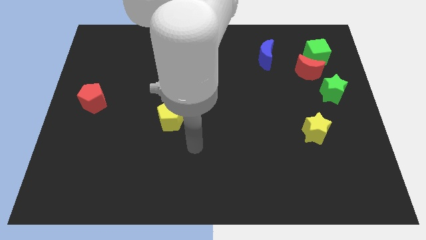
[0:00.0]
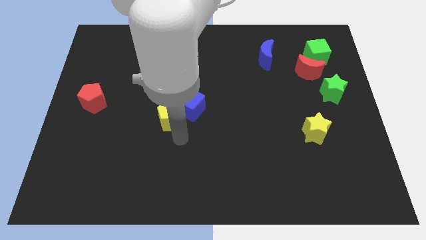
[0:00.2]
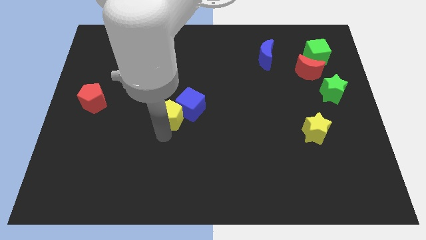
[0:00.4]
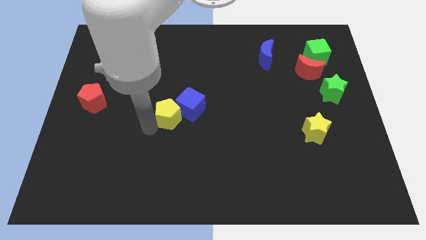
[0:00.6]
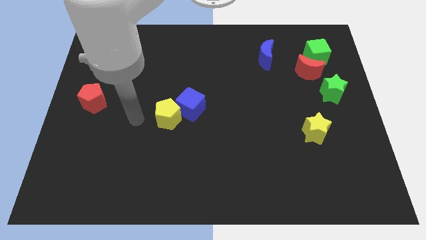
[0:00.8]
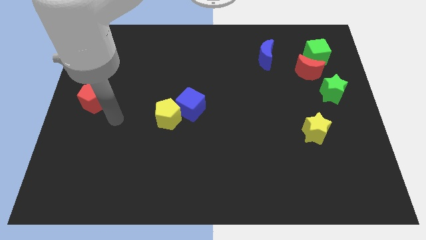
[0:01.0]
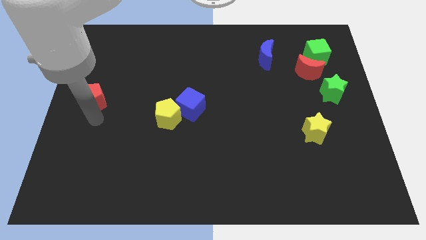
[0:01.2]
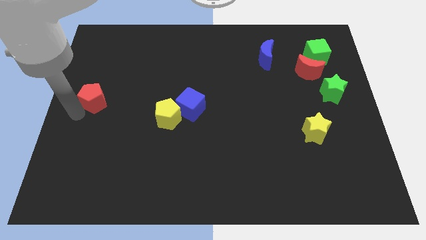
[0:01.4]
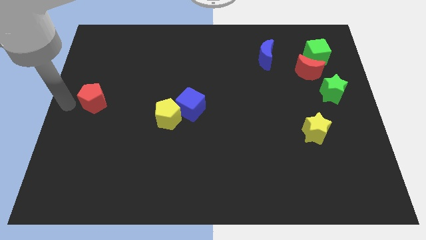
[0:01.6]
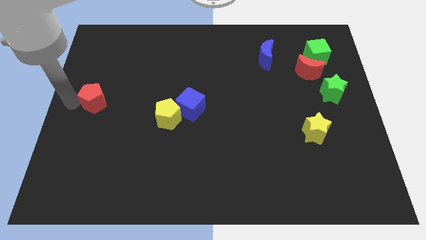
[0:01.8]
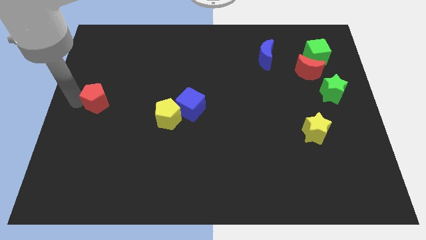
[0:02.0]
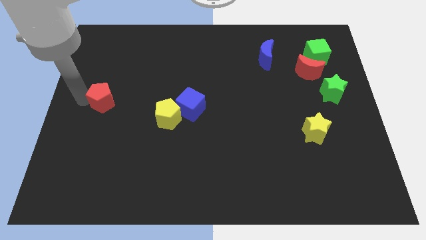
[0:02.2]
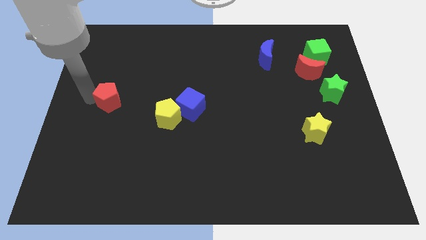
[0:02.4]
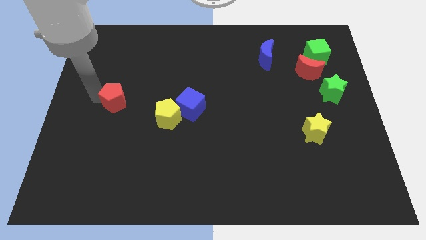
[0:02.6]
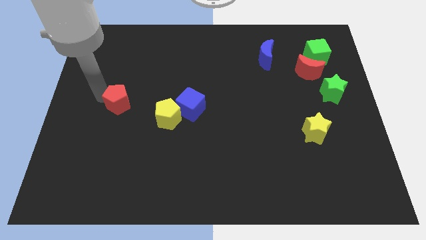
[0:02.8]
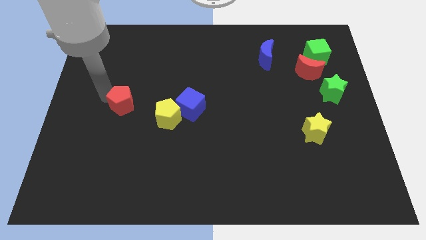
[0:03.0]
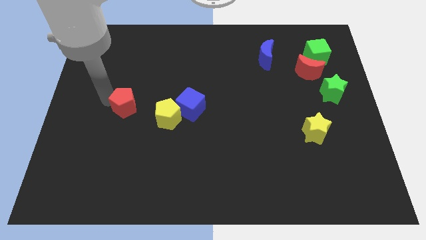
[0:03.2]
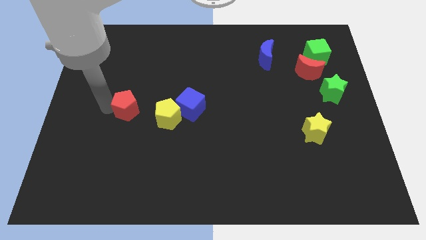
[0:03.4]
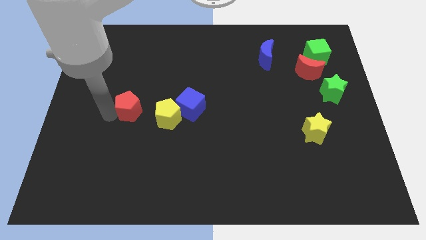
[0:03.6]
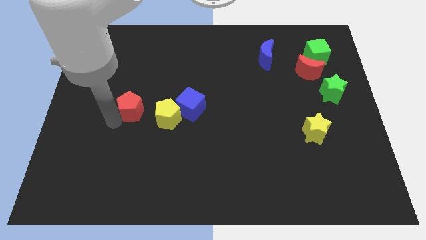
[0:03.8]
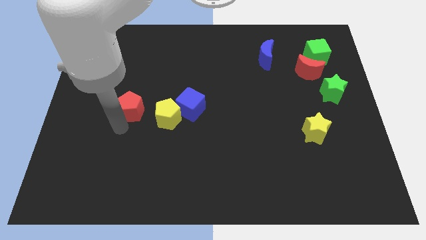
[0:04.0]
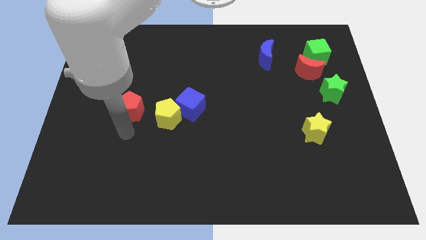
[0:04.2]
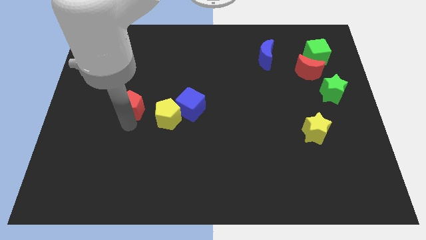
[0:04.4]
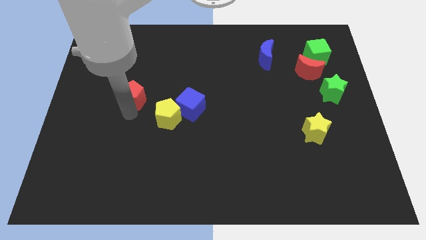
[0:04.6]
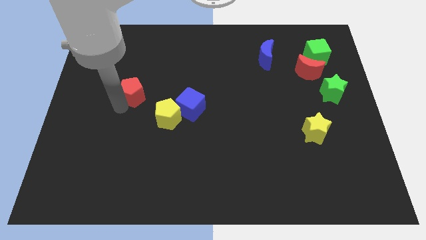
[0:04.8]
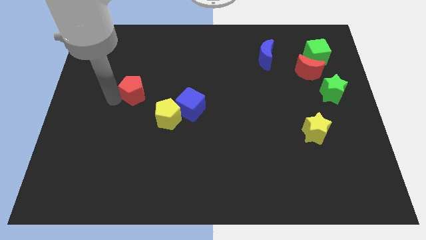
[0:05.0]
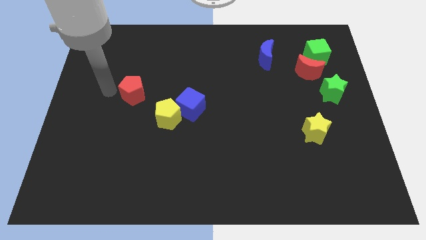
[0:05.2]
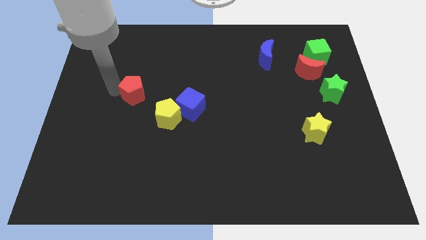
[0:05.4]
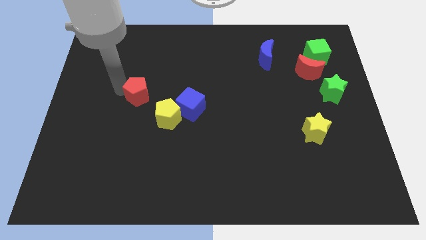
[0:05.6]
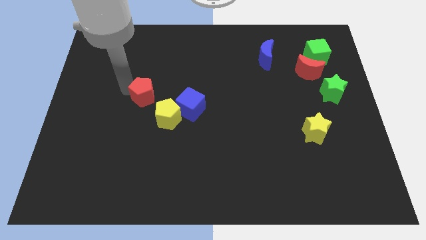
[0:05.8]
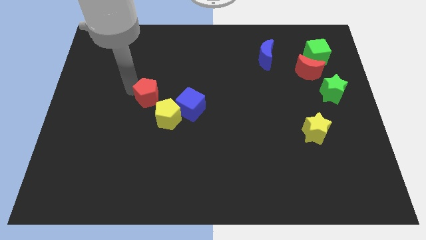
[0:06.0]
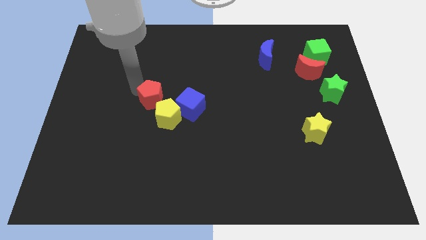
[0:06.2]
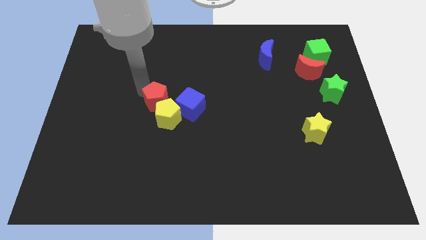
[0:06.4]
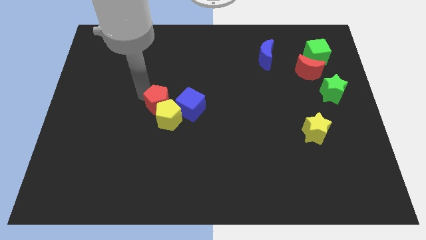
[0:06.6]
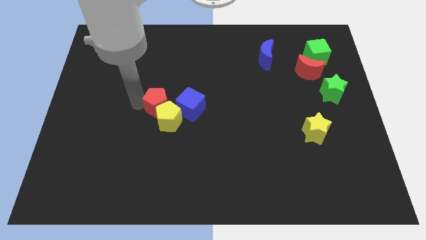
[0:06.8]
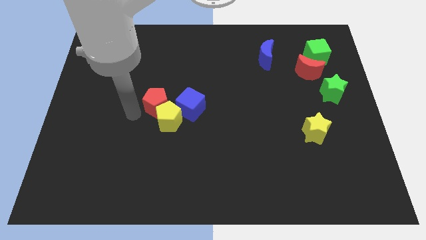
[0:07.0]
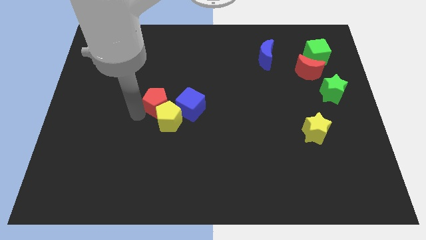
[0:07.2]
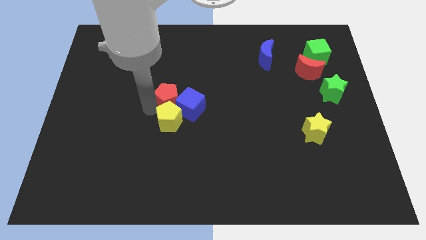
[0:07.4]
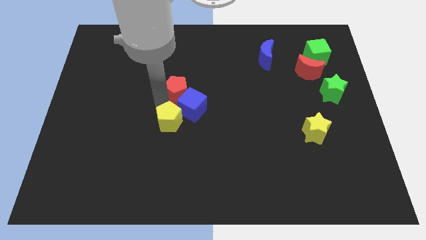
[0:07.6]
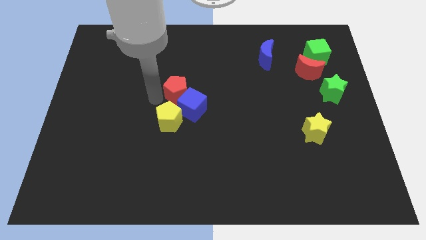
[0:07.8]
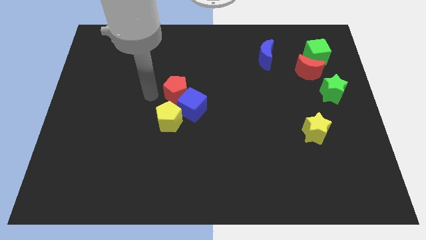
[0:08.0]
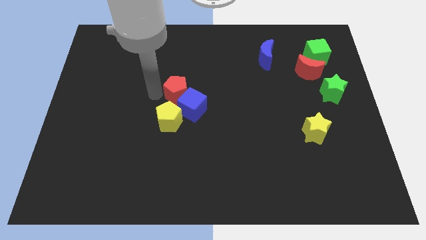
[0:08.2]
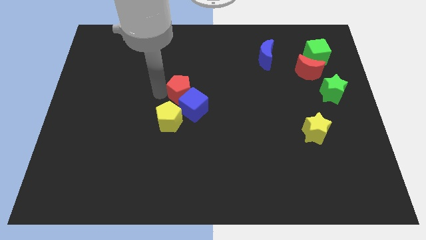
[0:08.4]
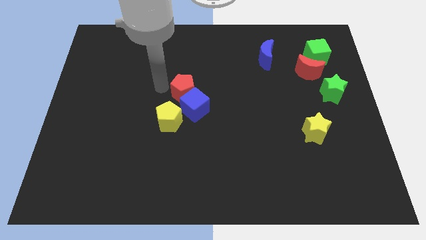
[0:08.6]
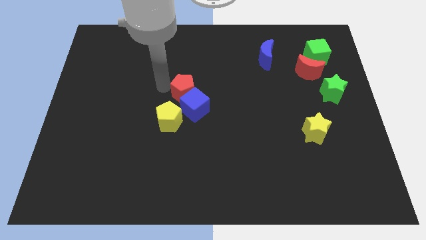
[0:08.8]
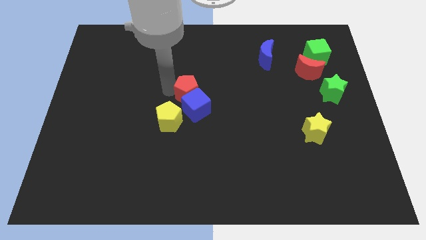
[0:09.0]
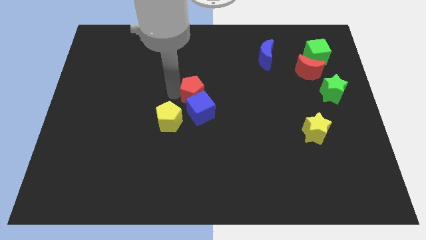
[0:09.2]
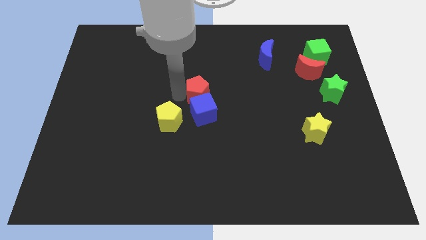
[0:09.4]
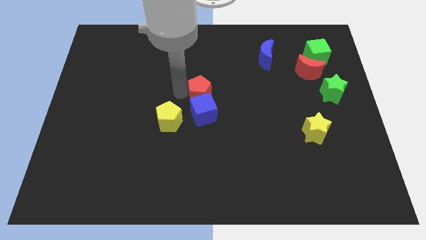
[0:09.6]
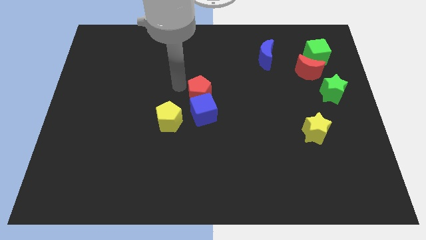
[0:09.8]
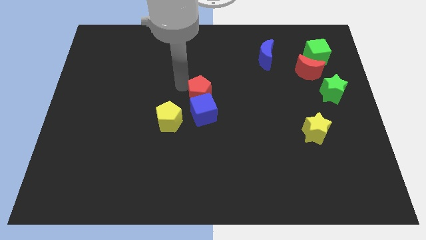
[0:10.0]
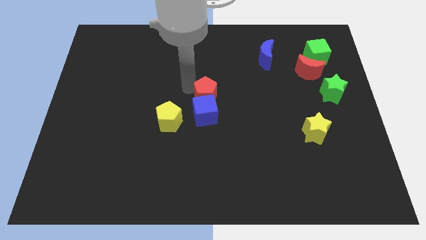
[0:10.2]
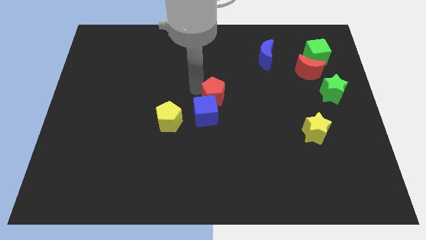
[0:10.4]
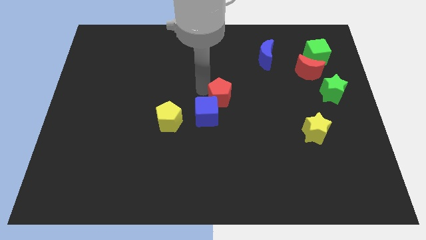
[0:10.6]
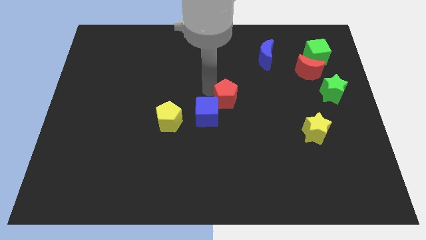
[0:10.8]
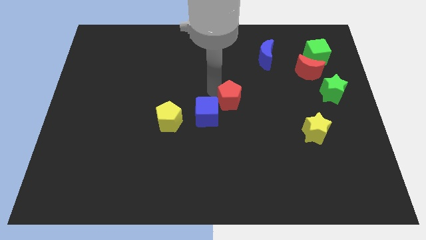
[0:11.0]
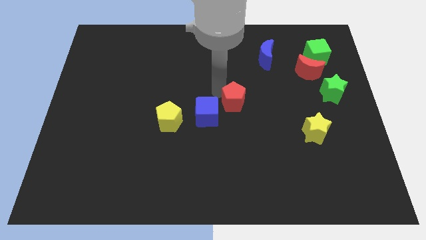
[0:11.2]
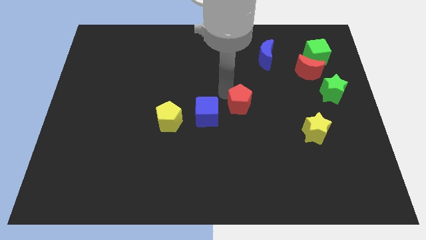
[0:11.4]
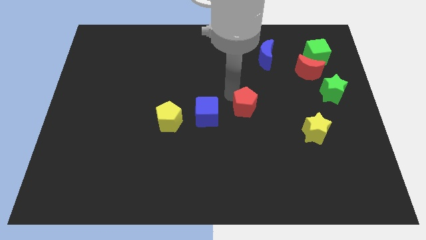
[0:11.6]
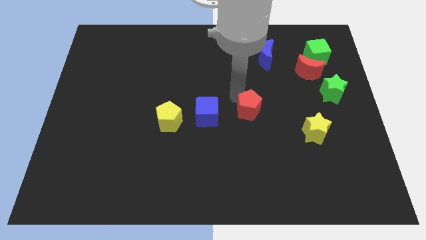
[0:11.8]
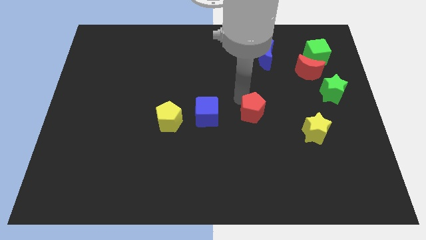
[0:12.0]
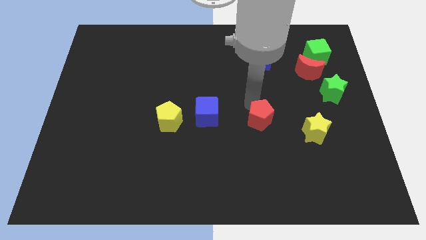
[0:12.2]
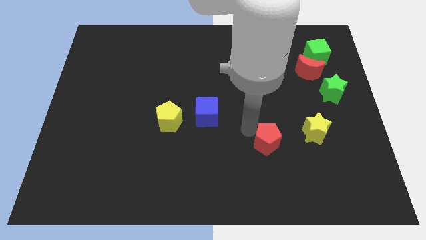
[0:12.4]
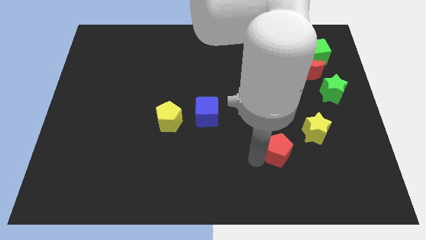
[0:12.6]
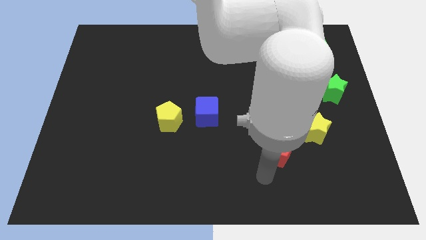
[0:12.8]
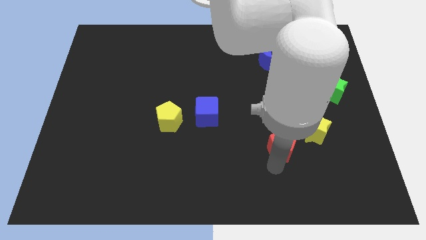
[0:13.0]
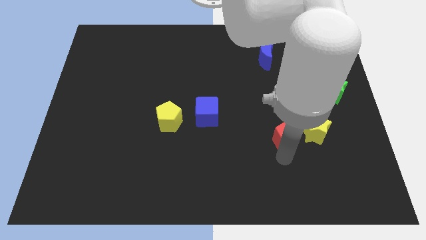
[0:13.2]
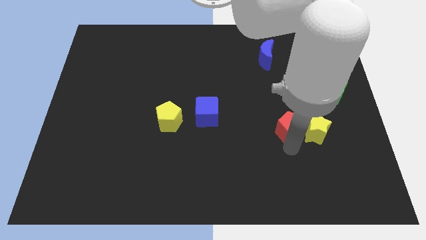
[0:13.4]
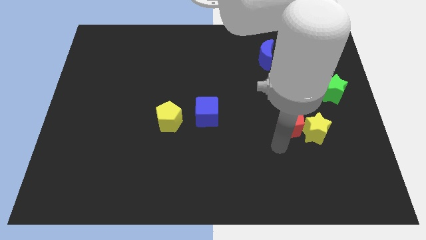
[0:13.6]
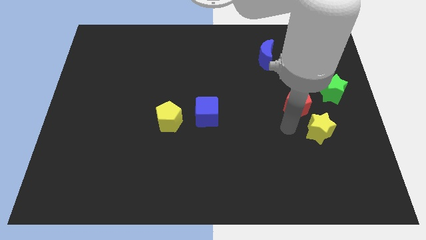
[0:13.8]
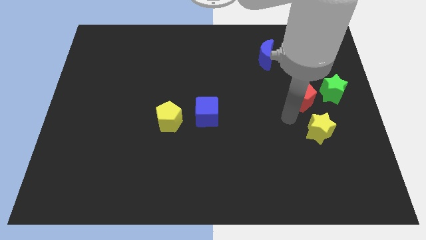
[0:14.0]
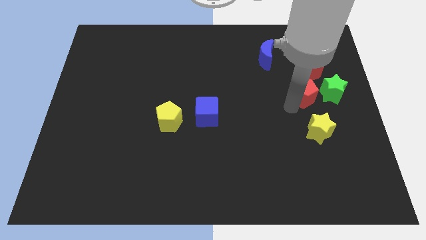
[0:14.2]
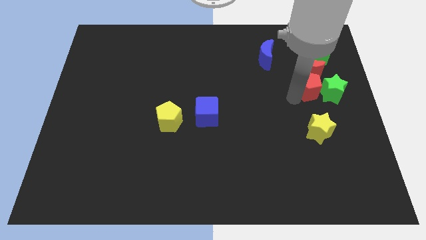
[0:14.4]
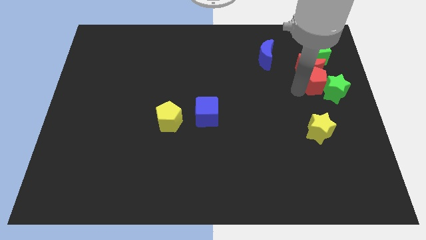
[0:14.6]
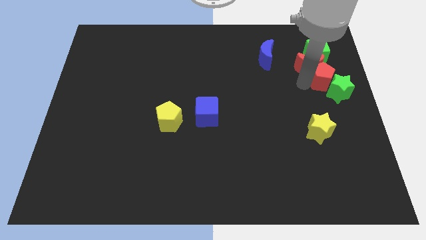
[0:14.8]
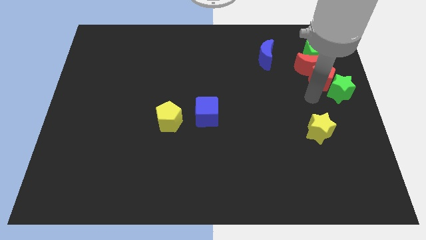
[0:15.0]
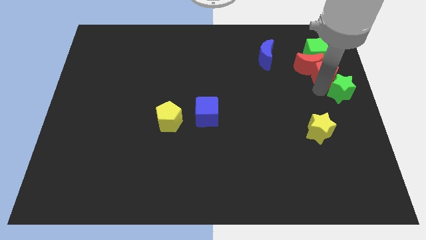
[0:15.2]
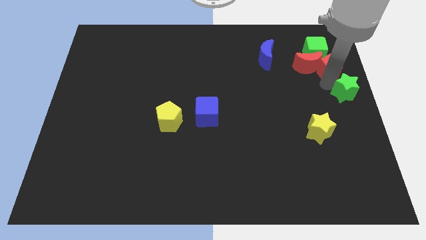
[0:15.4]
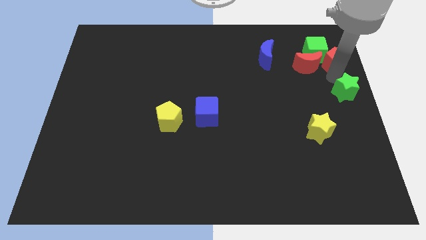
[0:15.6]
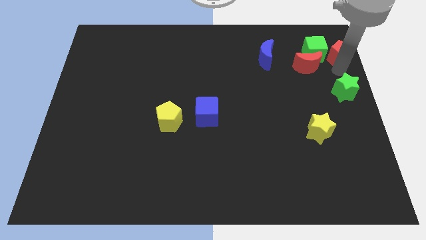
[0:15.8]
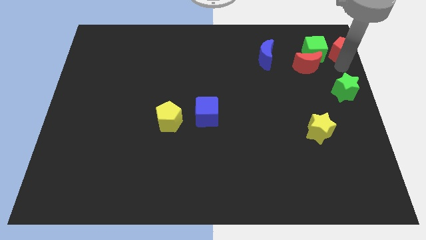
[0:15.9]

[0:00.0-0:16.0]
slide the red pentagon to the top right
